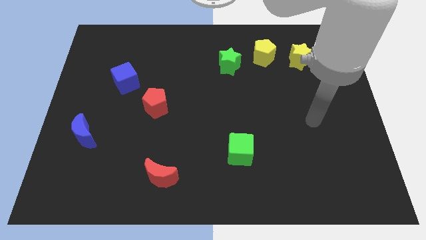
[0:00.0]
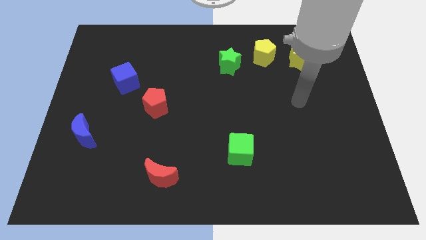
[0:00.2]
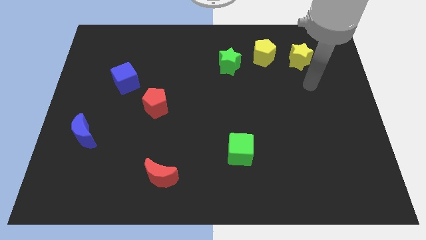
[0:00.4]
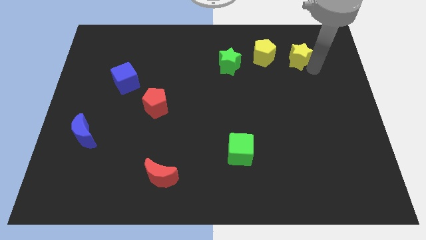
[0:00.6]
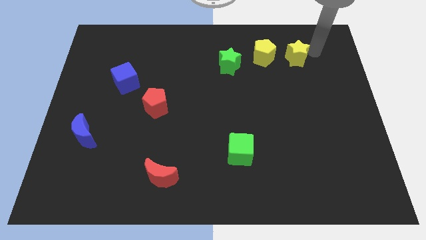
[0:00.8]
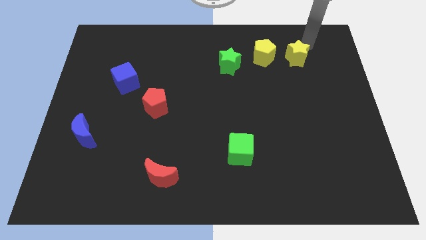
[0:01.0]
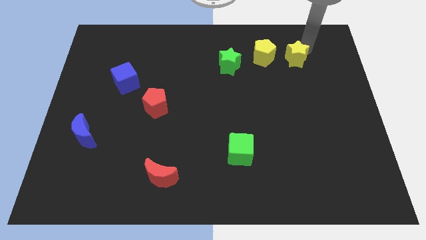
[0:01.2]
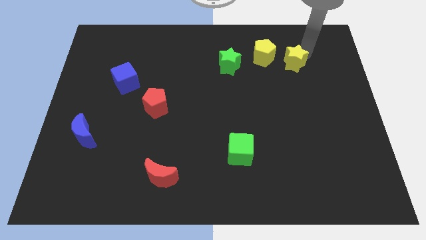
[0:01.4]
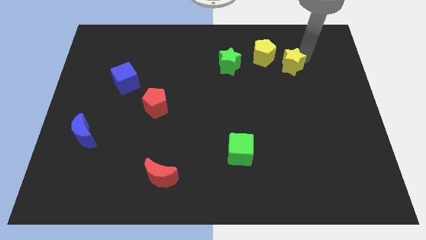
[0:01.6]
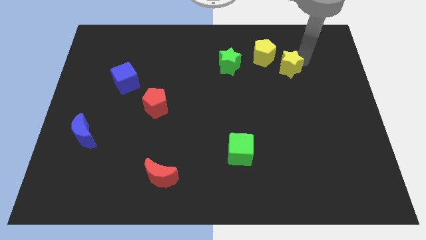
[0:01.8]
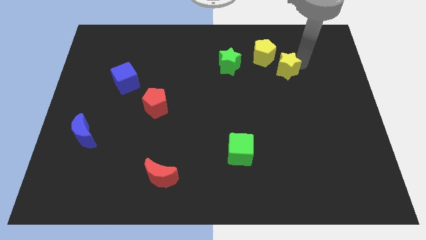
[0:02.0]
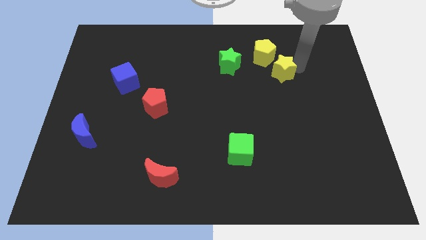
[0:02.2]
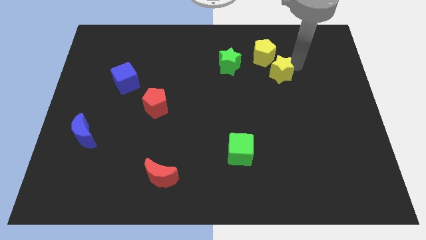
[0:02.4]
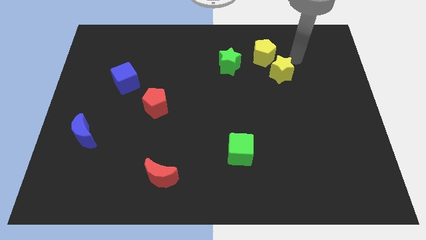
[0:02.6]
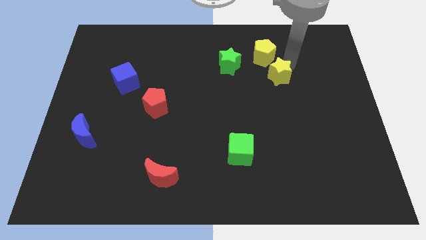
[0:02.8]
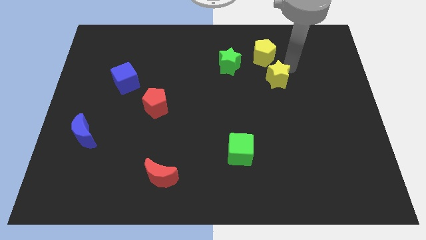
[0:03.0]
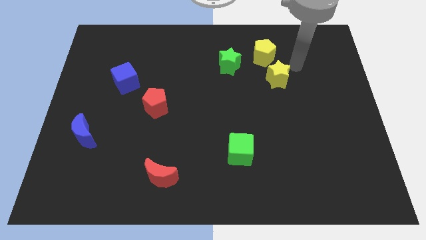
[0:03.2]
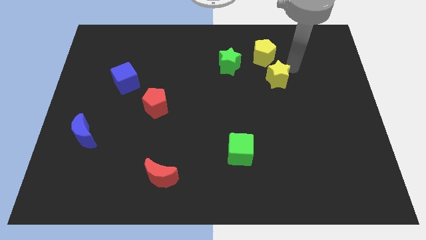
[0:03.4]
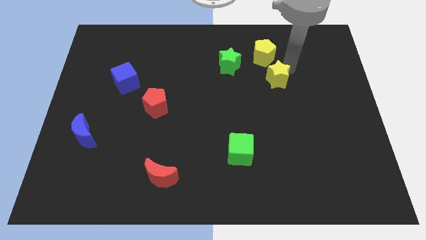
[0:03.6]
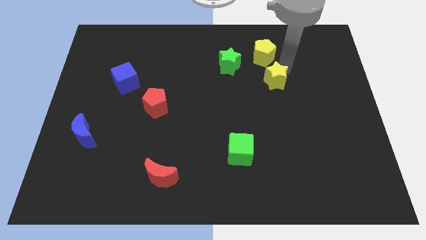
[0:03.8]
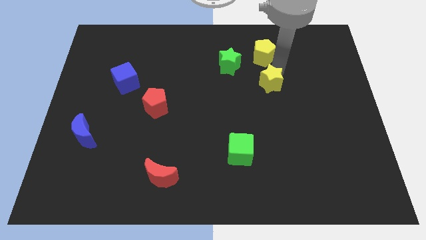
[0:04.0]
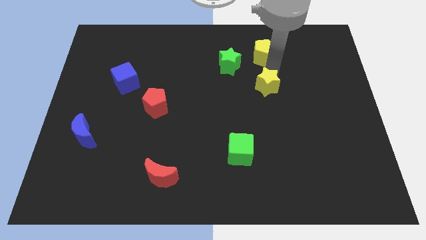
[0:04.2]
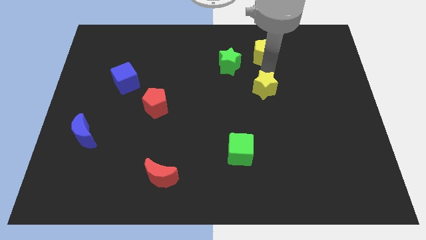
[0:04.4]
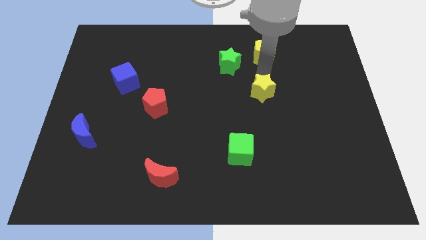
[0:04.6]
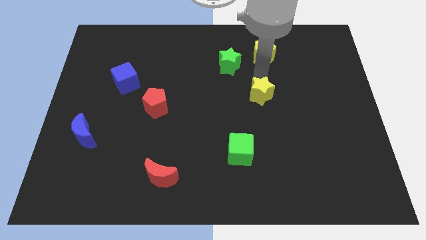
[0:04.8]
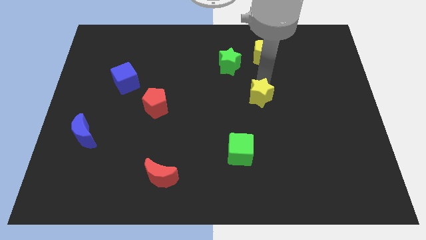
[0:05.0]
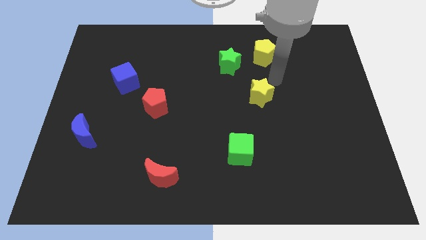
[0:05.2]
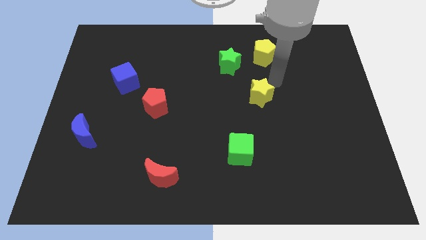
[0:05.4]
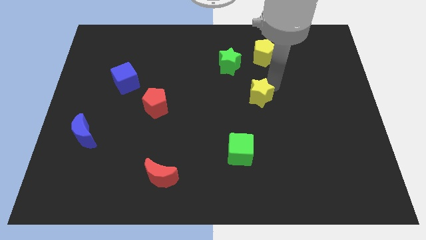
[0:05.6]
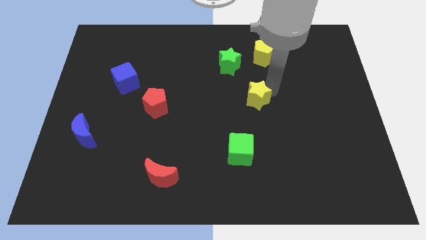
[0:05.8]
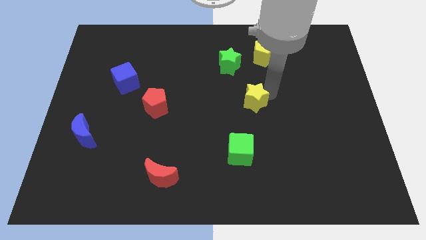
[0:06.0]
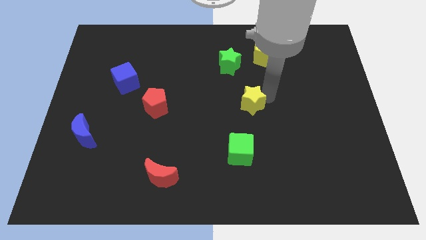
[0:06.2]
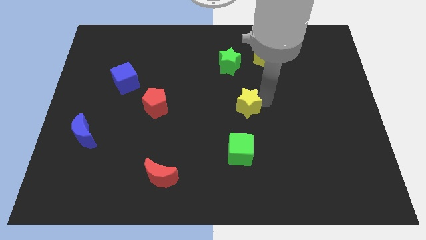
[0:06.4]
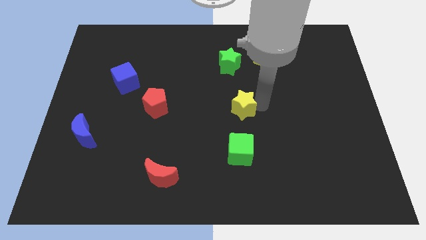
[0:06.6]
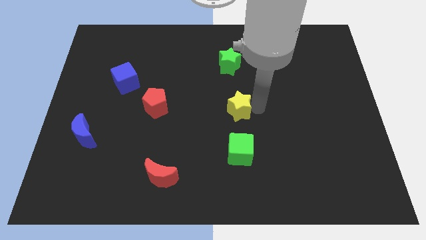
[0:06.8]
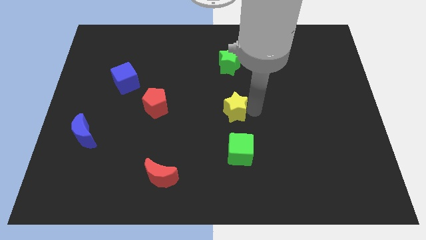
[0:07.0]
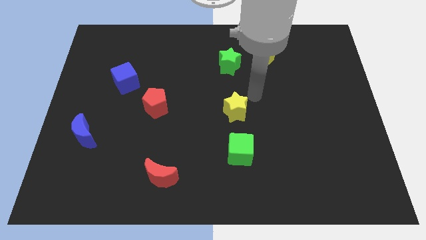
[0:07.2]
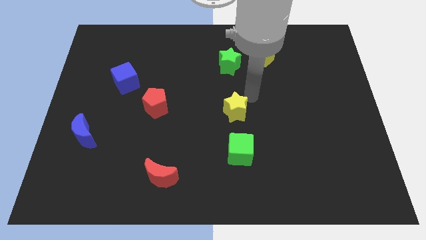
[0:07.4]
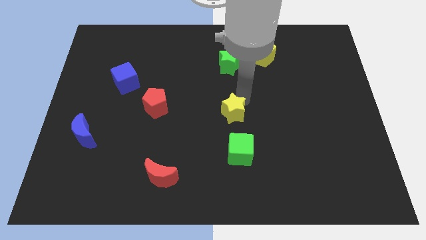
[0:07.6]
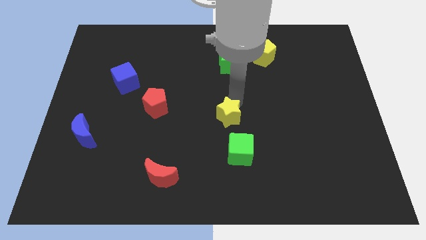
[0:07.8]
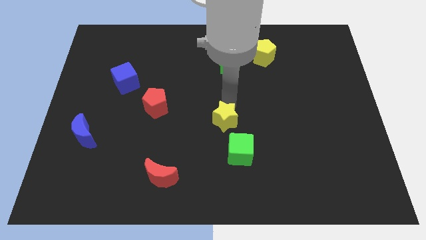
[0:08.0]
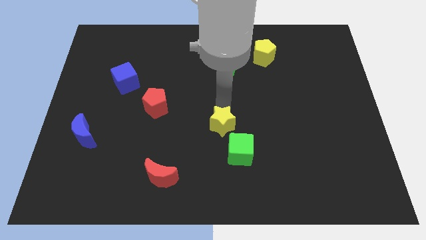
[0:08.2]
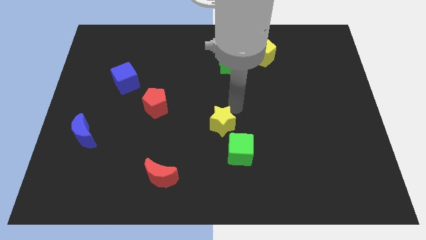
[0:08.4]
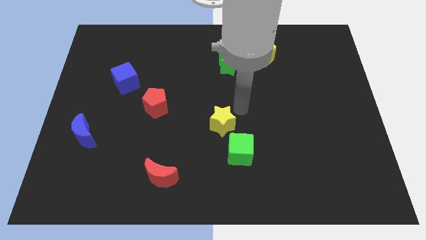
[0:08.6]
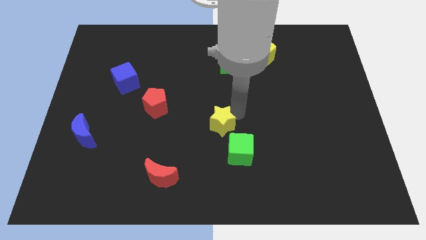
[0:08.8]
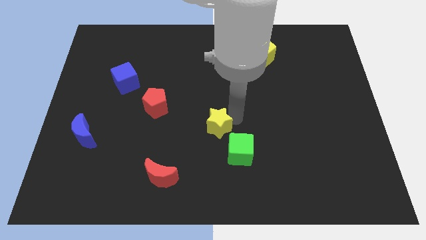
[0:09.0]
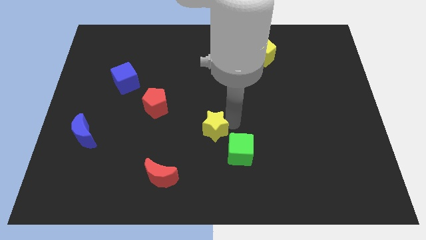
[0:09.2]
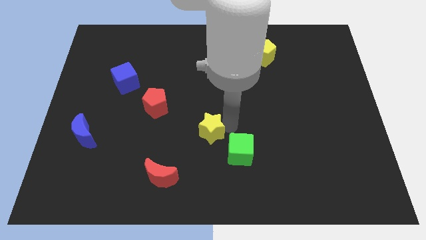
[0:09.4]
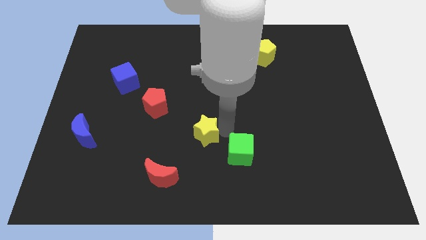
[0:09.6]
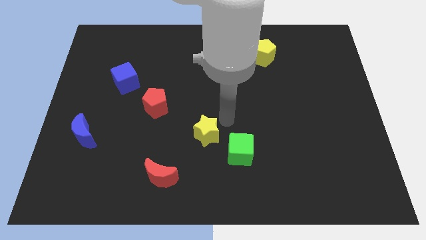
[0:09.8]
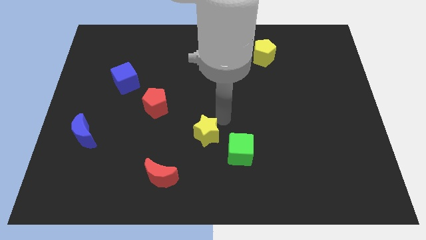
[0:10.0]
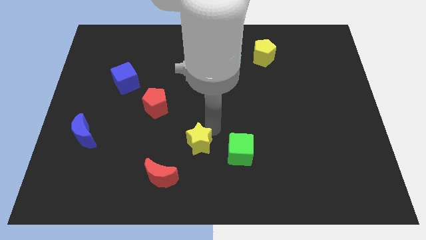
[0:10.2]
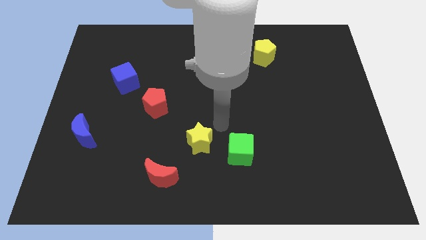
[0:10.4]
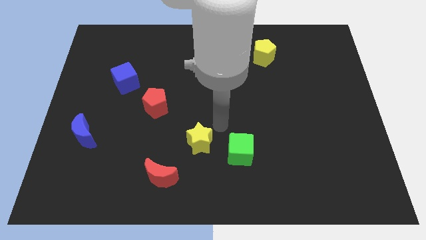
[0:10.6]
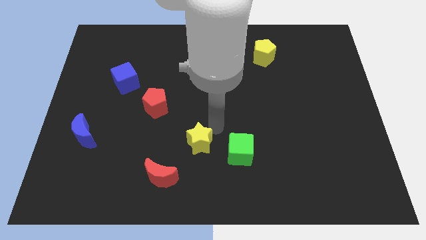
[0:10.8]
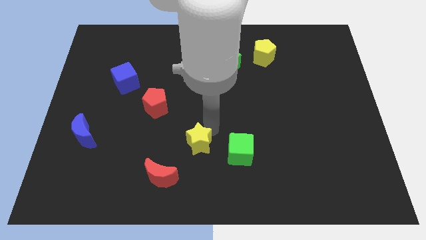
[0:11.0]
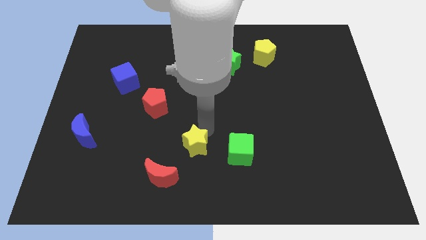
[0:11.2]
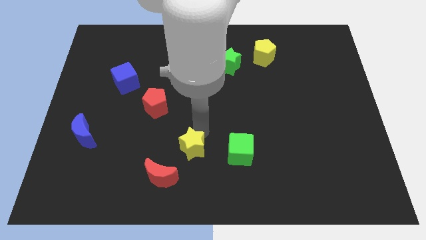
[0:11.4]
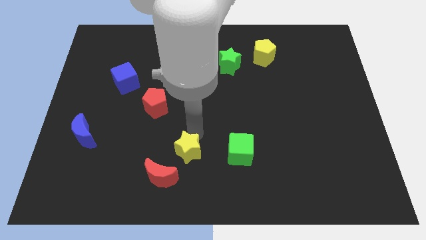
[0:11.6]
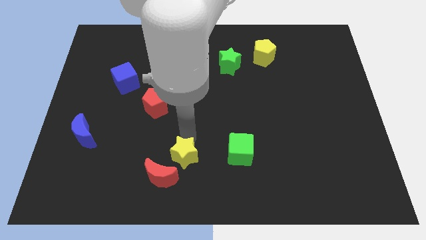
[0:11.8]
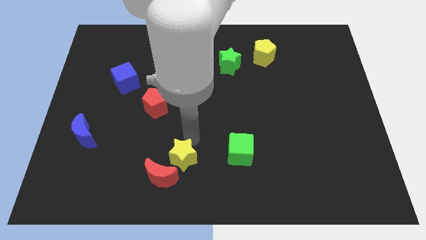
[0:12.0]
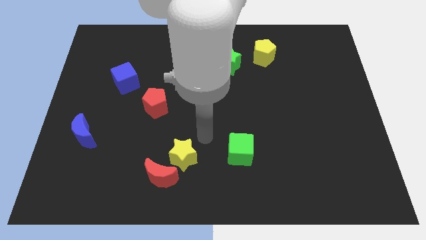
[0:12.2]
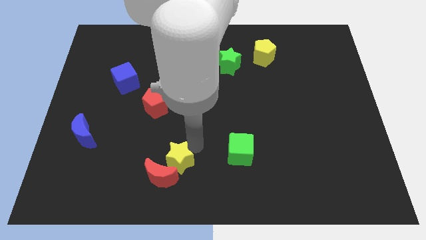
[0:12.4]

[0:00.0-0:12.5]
move the yellow star towards the red moon
